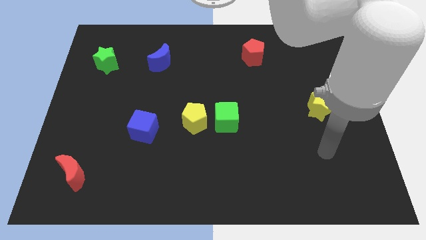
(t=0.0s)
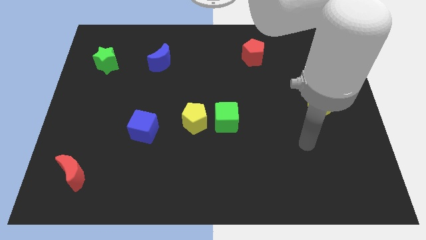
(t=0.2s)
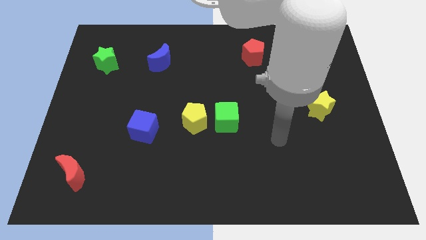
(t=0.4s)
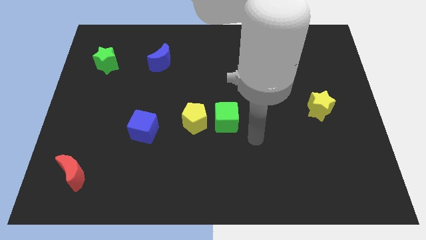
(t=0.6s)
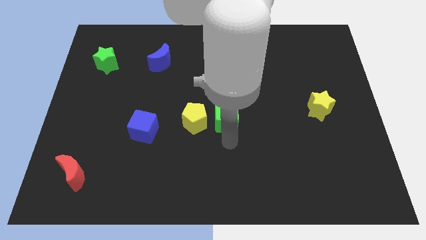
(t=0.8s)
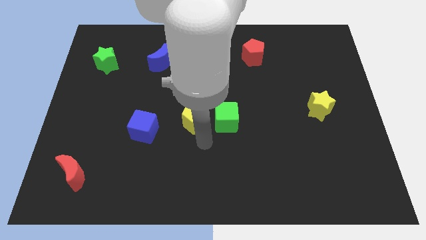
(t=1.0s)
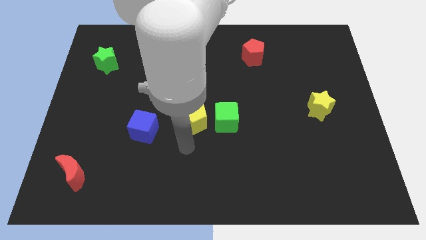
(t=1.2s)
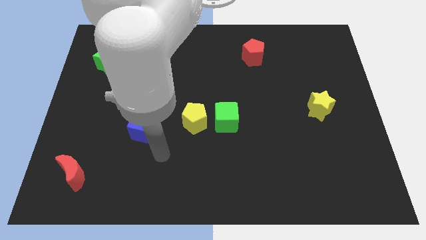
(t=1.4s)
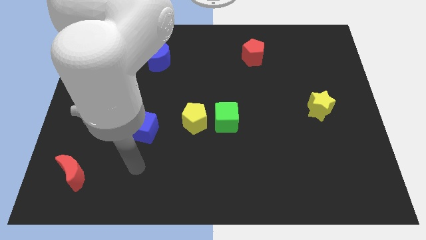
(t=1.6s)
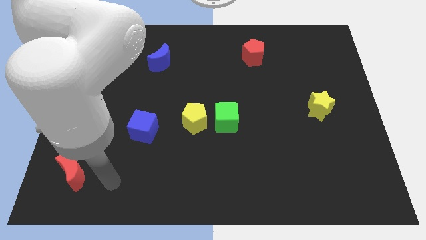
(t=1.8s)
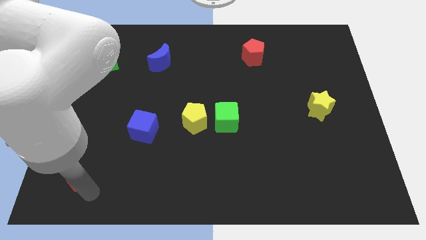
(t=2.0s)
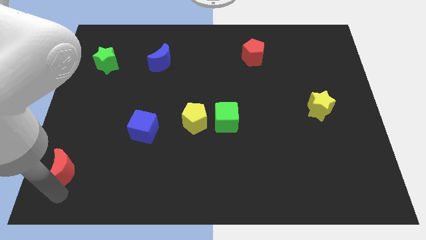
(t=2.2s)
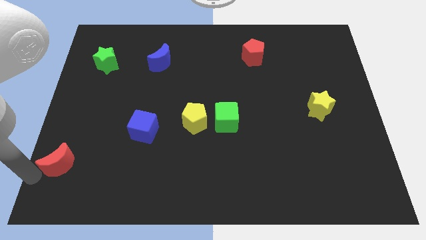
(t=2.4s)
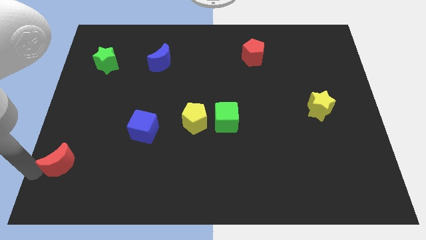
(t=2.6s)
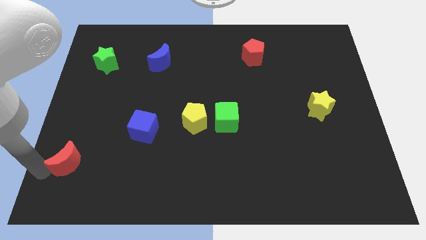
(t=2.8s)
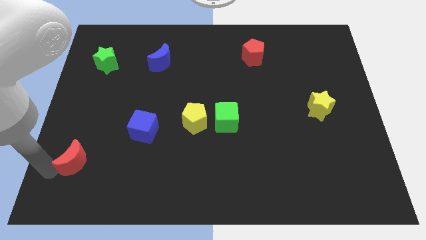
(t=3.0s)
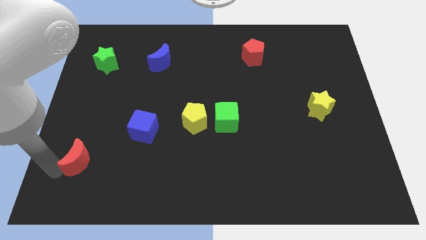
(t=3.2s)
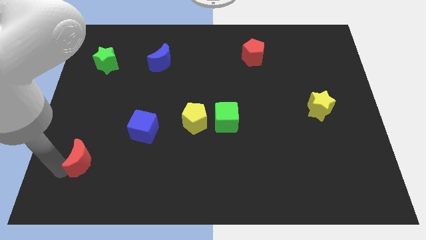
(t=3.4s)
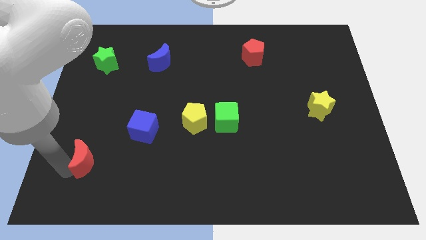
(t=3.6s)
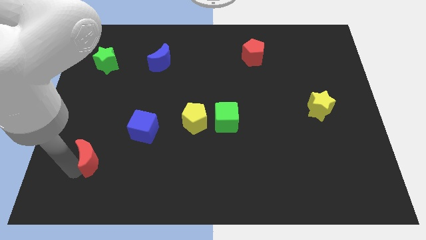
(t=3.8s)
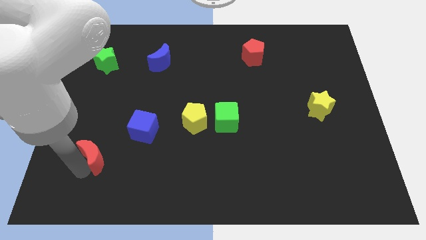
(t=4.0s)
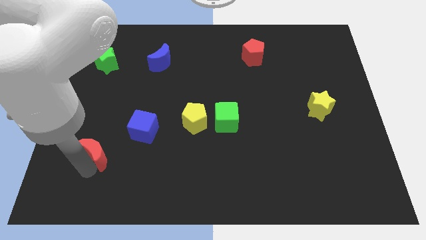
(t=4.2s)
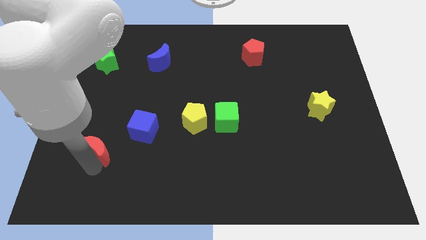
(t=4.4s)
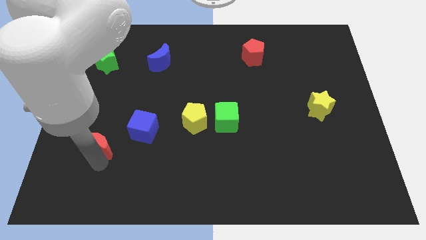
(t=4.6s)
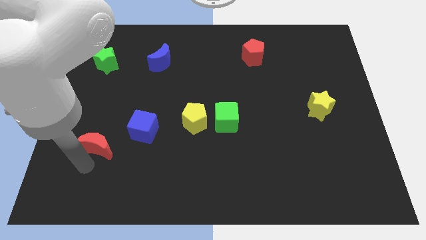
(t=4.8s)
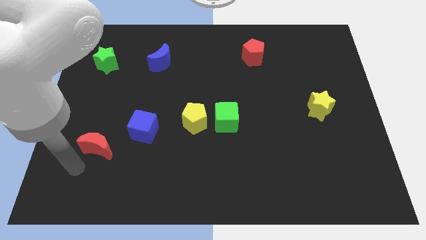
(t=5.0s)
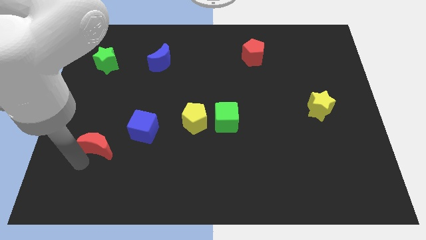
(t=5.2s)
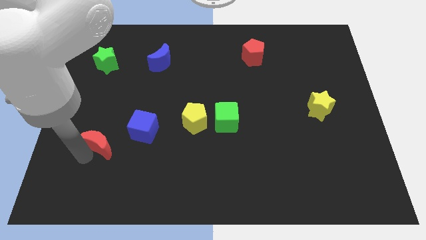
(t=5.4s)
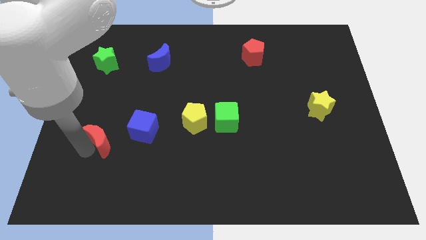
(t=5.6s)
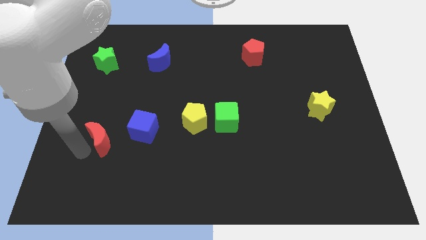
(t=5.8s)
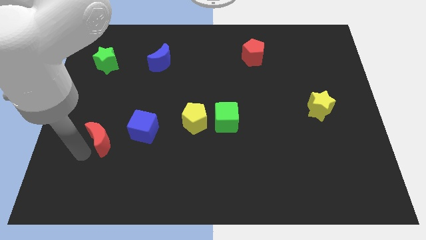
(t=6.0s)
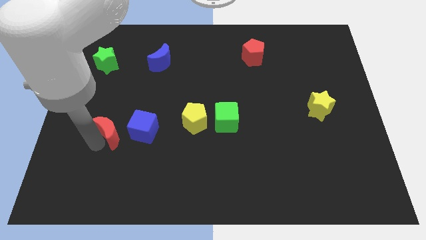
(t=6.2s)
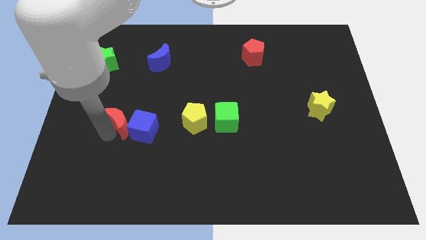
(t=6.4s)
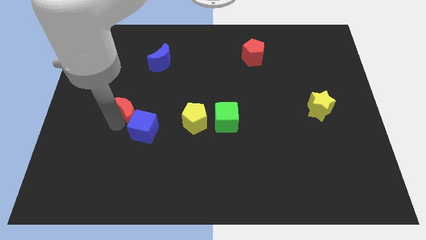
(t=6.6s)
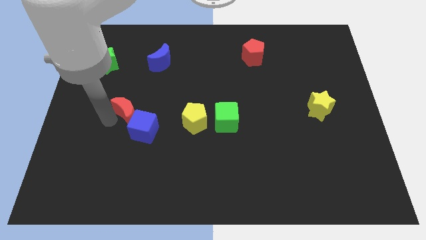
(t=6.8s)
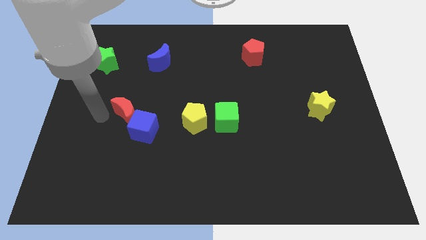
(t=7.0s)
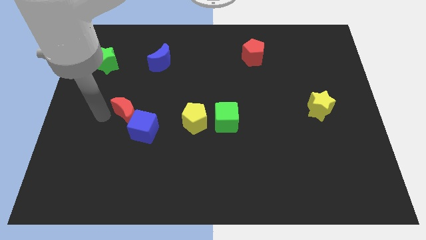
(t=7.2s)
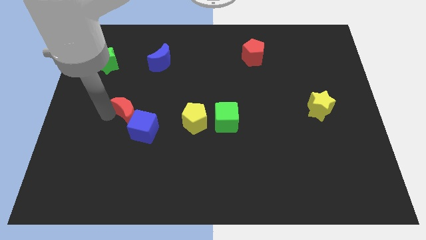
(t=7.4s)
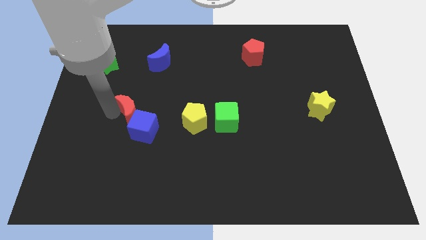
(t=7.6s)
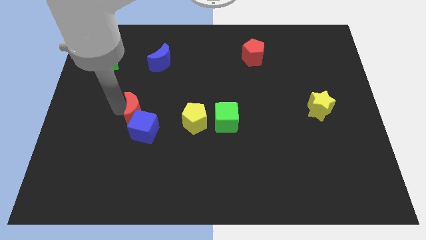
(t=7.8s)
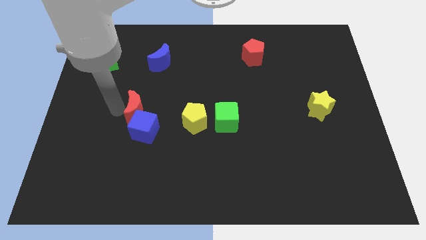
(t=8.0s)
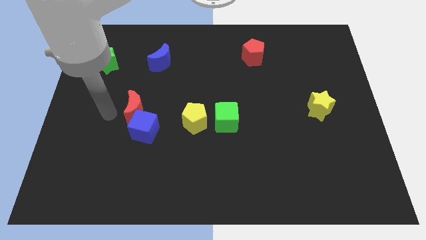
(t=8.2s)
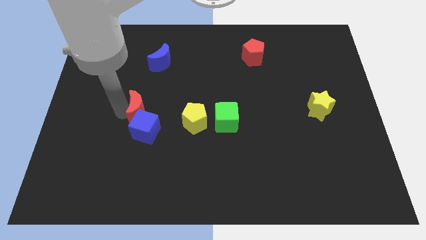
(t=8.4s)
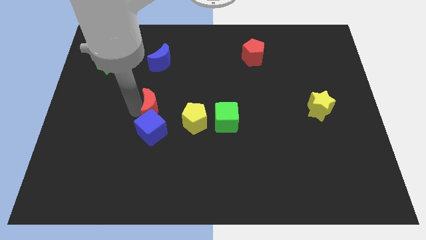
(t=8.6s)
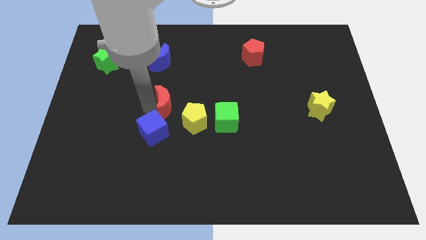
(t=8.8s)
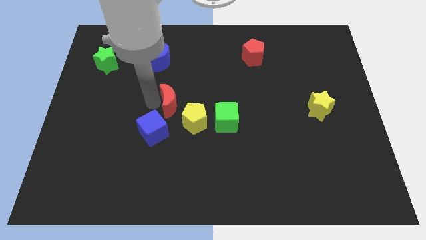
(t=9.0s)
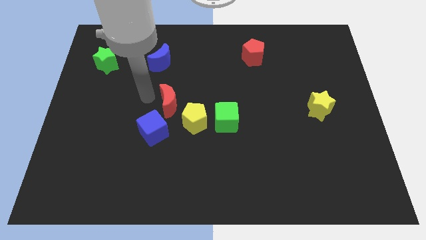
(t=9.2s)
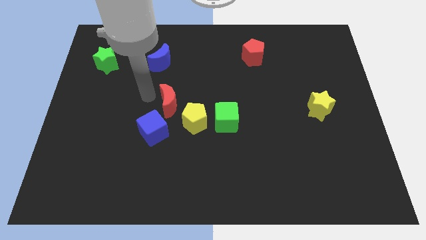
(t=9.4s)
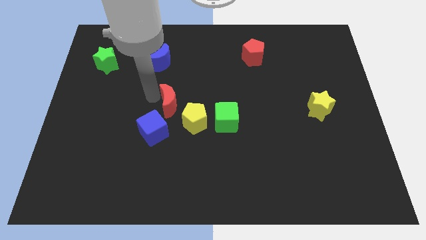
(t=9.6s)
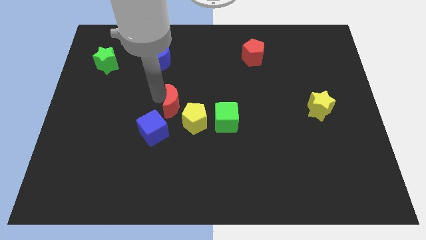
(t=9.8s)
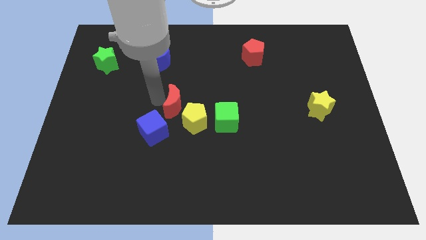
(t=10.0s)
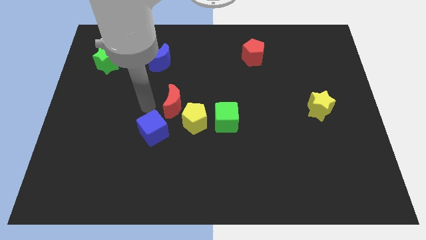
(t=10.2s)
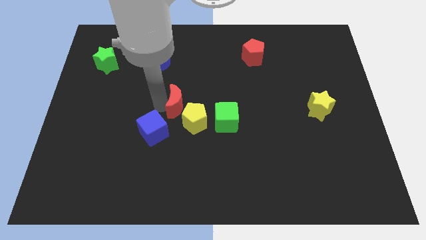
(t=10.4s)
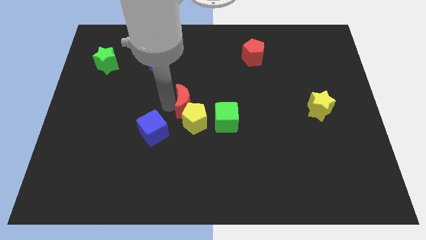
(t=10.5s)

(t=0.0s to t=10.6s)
move the red moon to the top left of the green cube

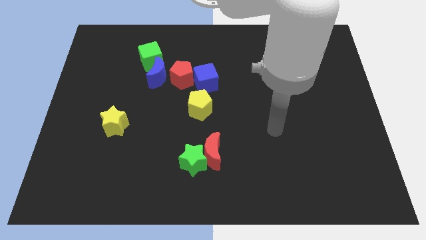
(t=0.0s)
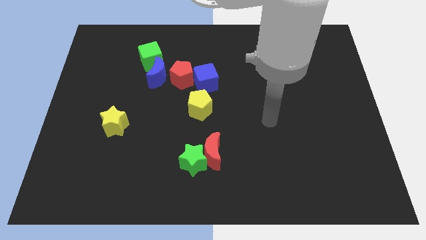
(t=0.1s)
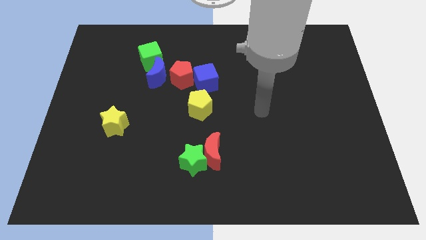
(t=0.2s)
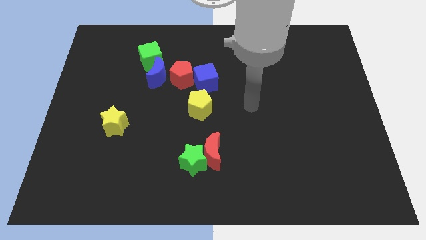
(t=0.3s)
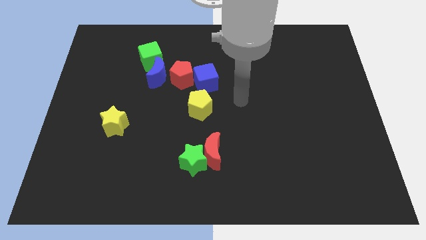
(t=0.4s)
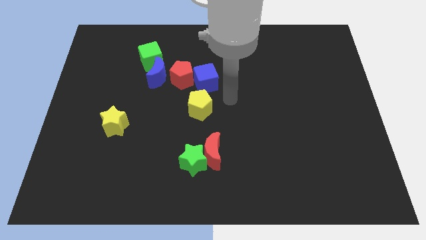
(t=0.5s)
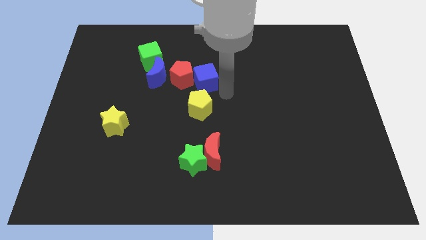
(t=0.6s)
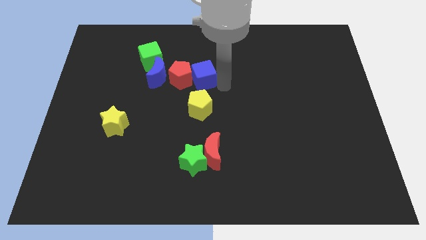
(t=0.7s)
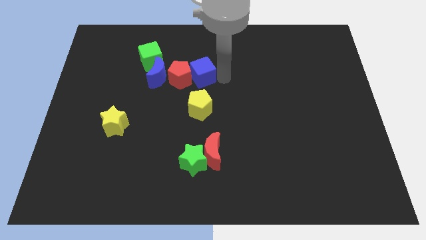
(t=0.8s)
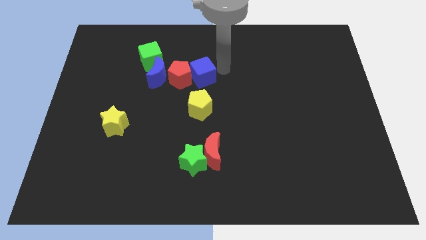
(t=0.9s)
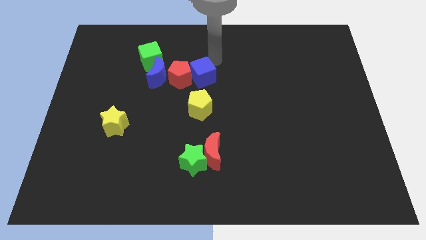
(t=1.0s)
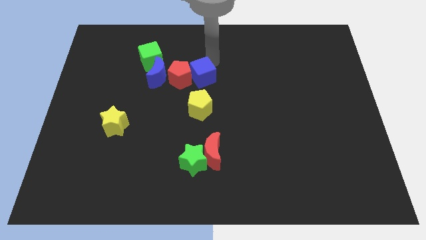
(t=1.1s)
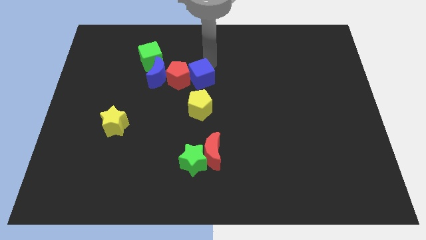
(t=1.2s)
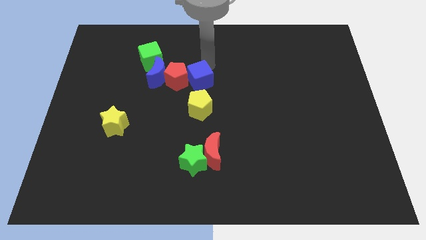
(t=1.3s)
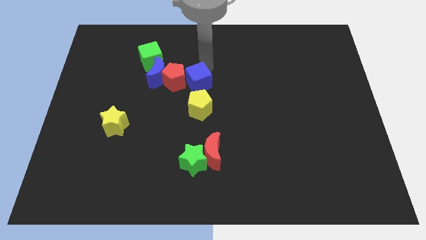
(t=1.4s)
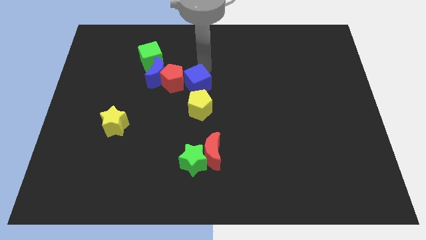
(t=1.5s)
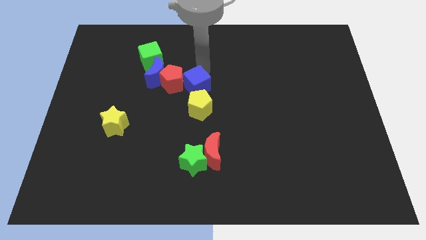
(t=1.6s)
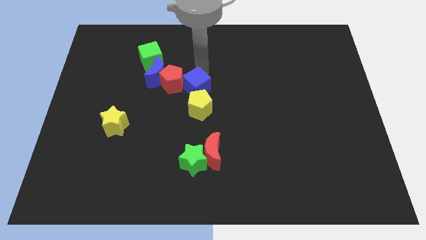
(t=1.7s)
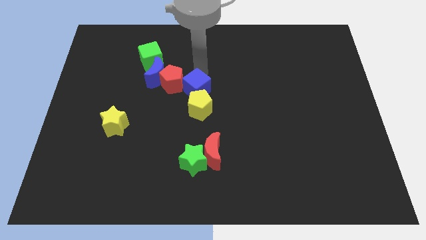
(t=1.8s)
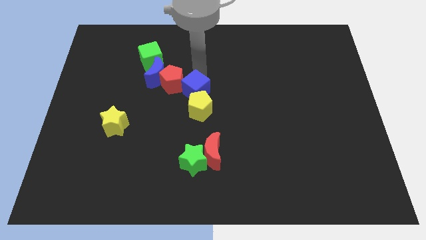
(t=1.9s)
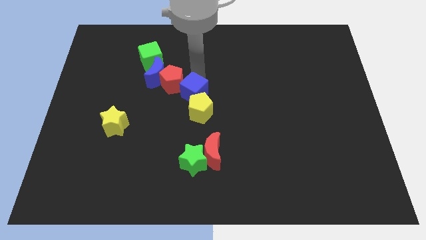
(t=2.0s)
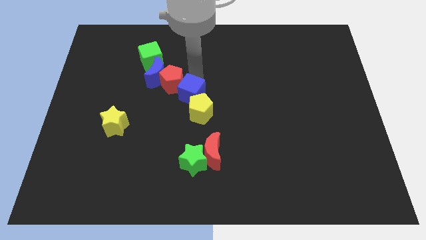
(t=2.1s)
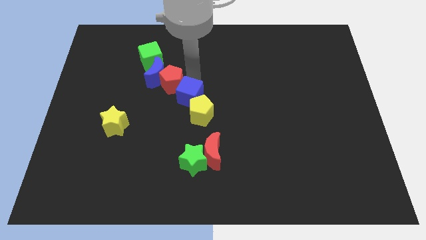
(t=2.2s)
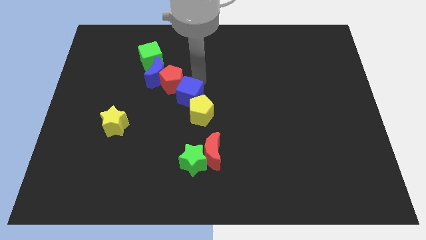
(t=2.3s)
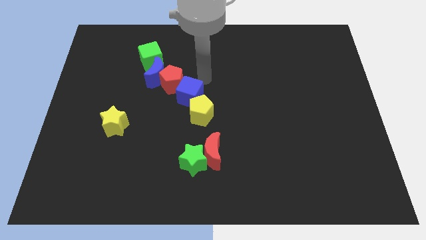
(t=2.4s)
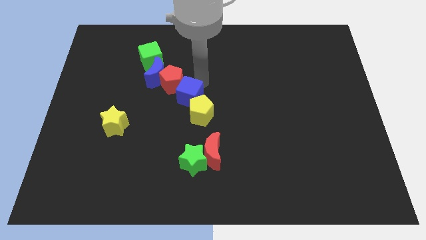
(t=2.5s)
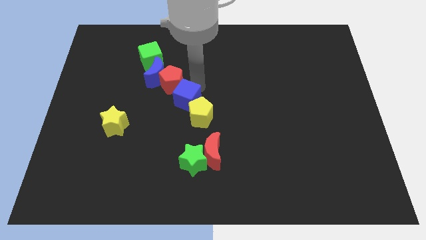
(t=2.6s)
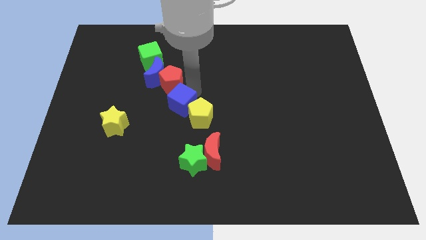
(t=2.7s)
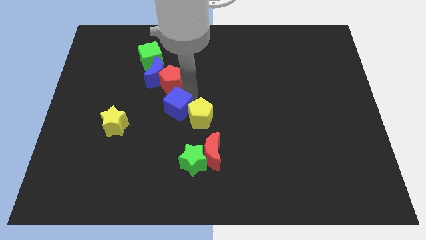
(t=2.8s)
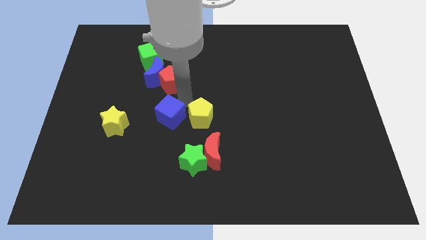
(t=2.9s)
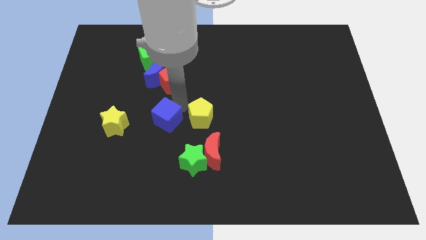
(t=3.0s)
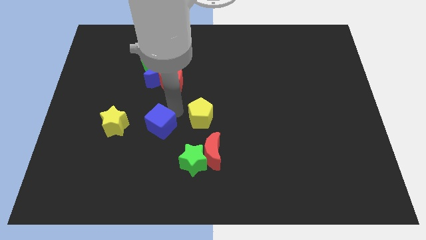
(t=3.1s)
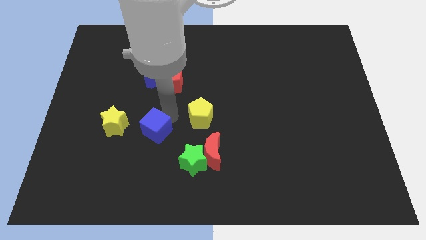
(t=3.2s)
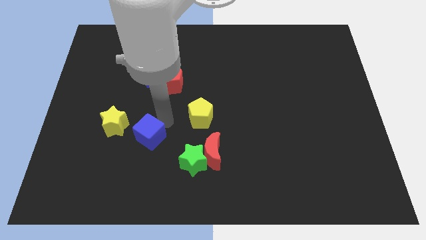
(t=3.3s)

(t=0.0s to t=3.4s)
move the blue cube diagonally down and to the right of the yellow star
